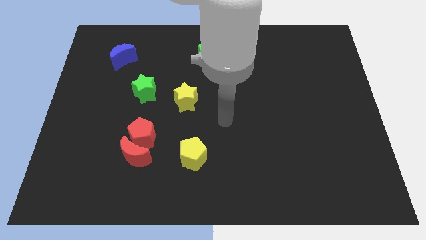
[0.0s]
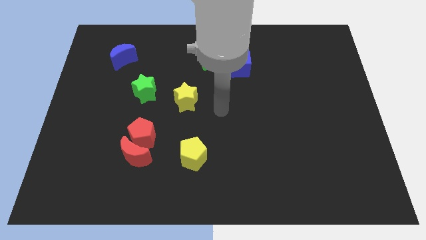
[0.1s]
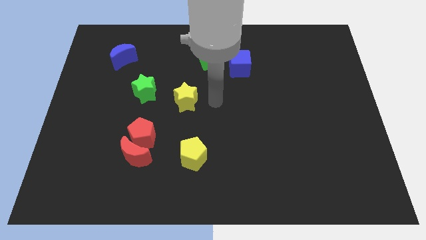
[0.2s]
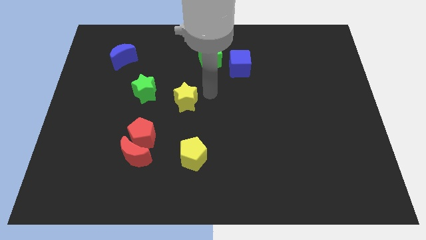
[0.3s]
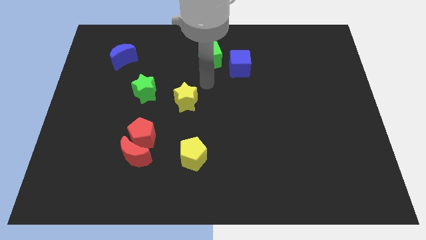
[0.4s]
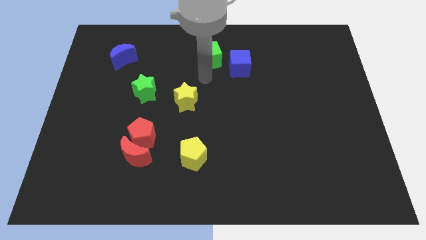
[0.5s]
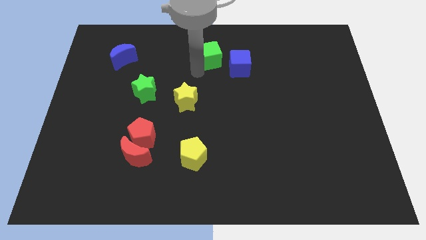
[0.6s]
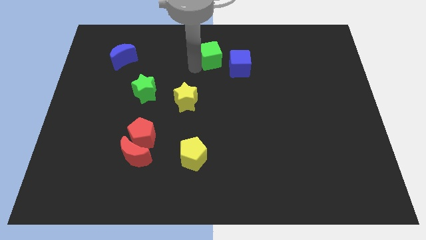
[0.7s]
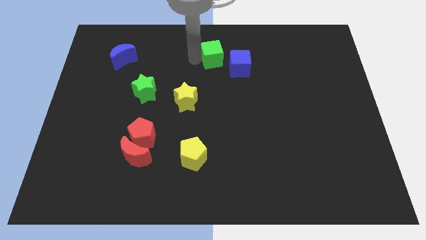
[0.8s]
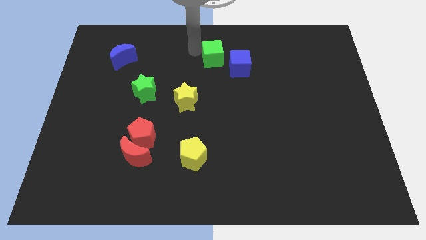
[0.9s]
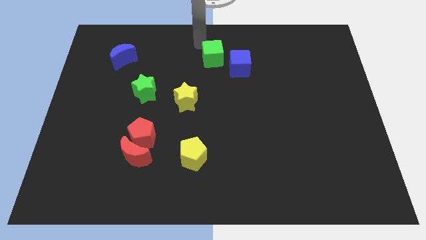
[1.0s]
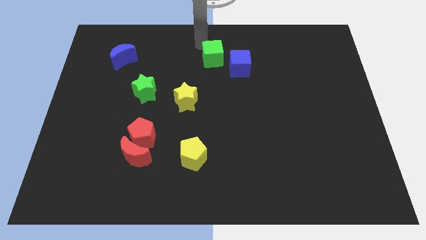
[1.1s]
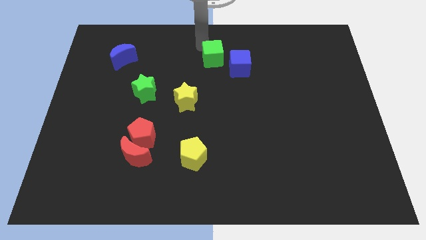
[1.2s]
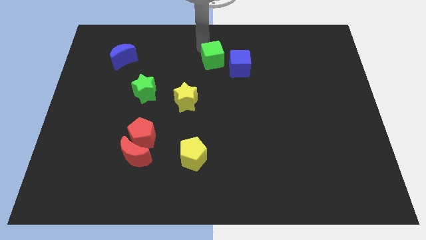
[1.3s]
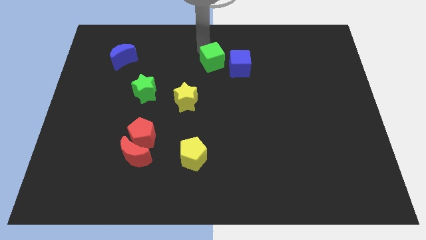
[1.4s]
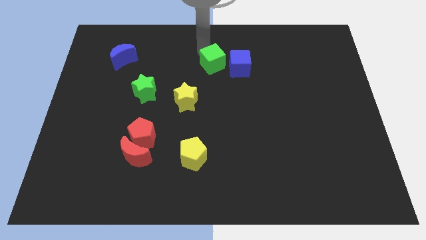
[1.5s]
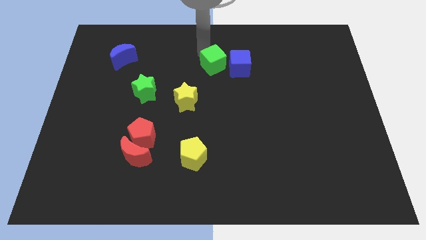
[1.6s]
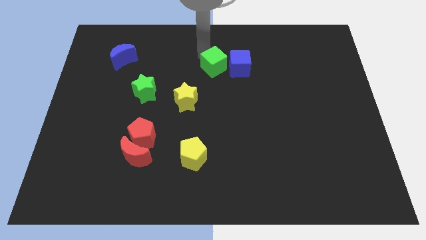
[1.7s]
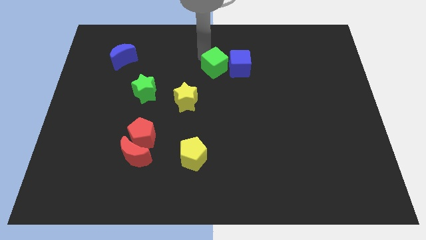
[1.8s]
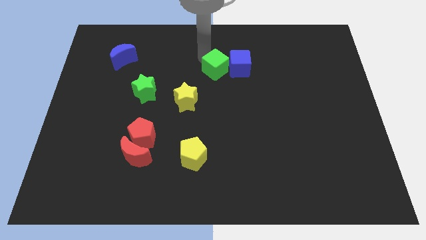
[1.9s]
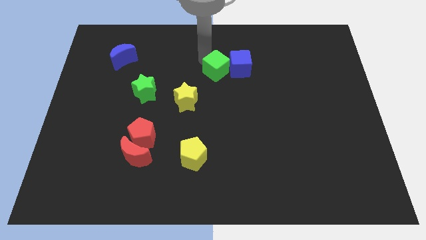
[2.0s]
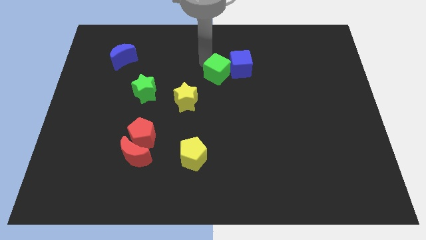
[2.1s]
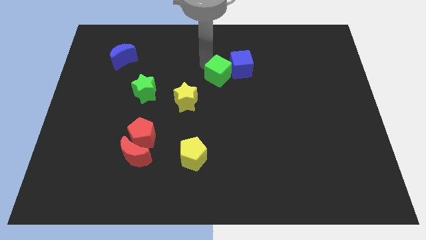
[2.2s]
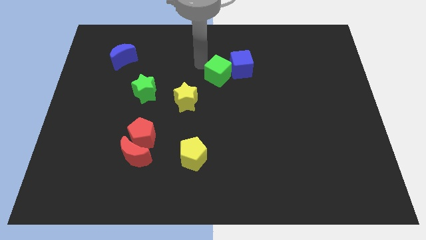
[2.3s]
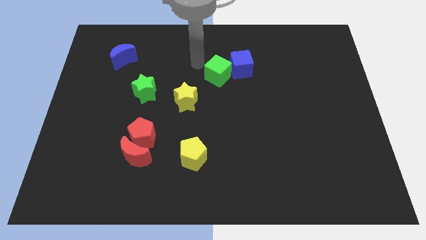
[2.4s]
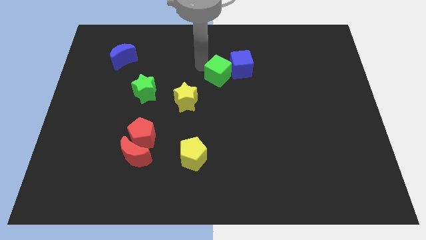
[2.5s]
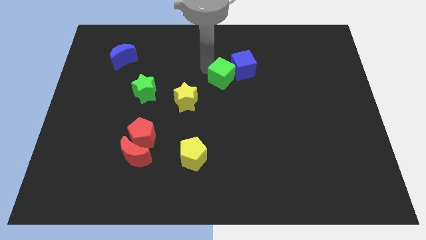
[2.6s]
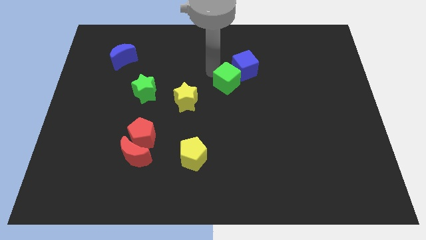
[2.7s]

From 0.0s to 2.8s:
push the green cube down and right diagonally somewhat

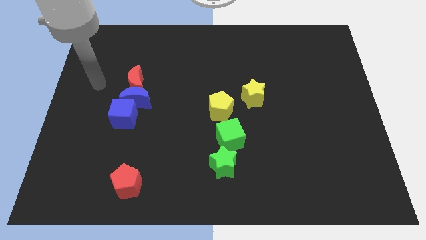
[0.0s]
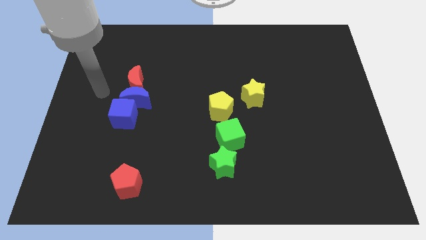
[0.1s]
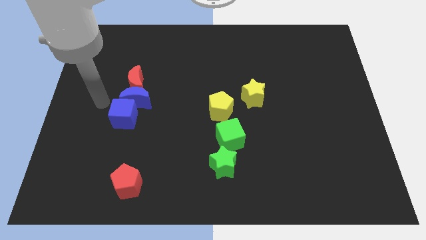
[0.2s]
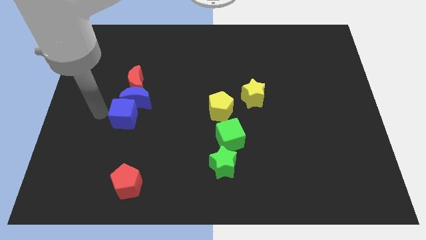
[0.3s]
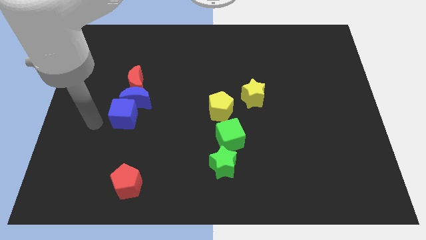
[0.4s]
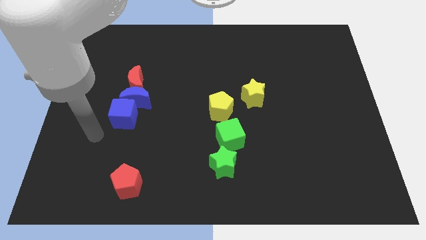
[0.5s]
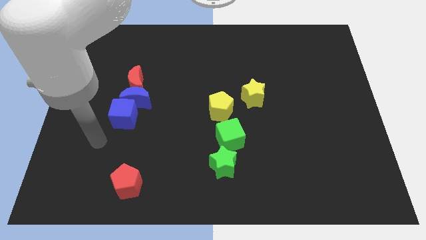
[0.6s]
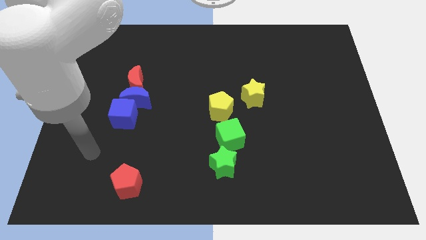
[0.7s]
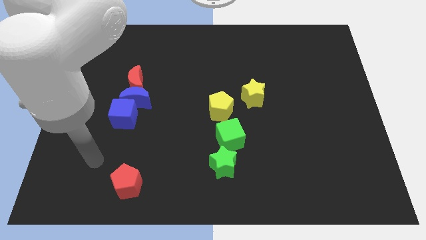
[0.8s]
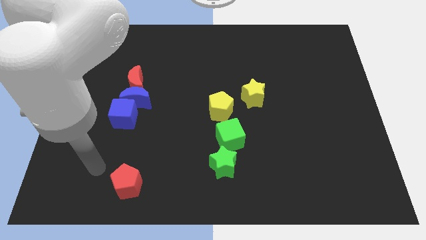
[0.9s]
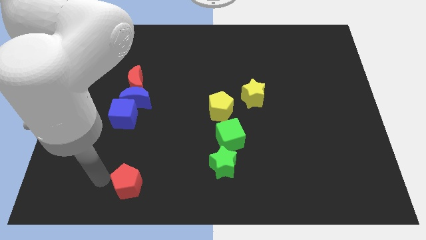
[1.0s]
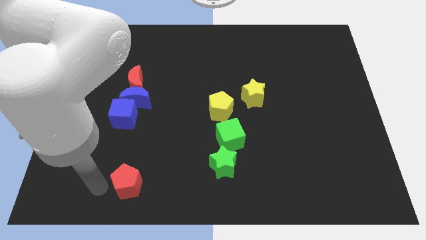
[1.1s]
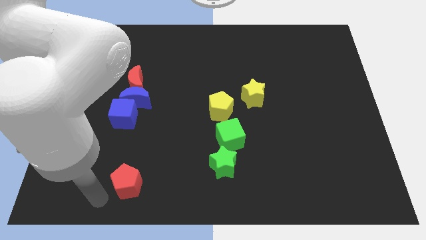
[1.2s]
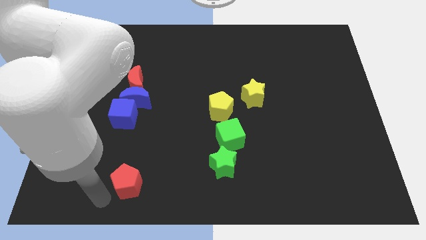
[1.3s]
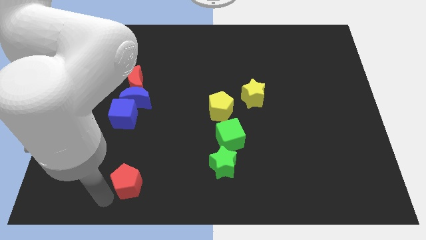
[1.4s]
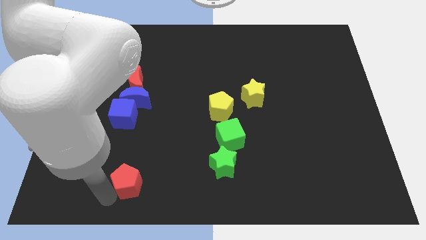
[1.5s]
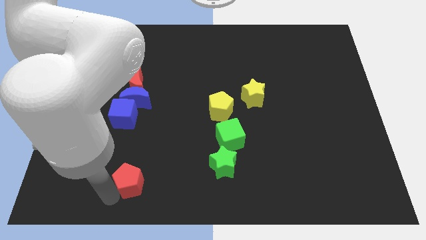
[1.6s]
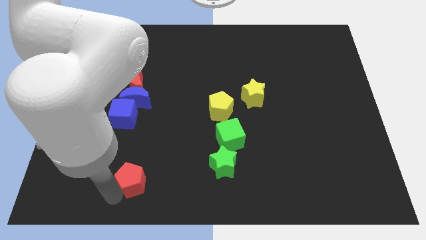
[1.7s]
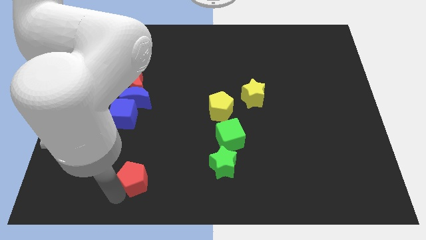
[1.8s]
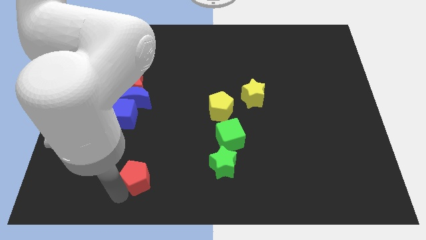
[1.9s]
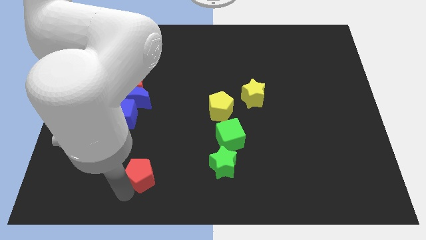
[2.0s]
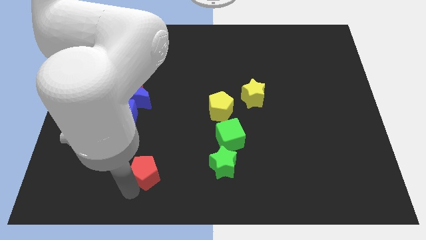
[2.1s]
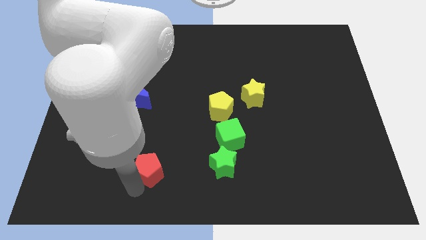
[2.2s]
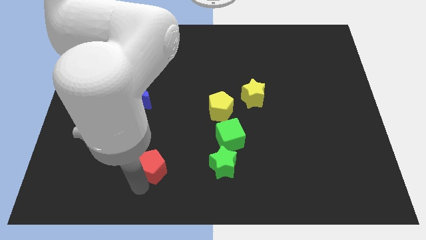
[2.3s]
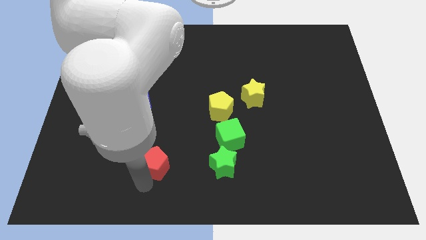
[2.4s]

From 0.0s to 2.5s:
push the red pentagon diagonally up and right somewhat

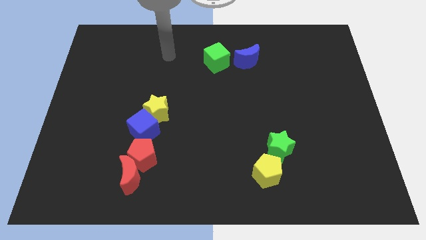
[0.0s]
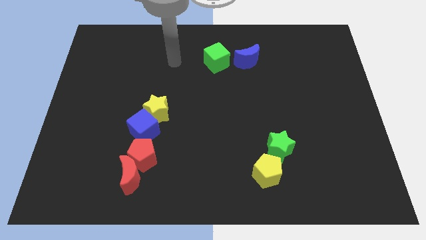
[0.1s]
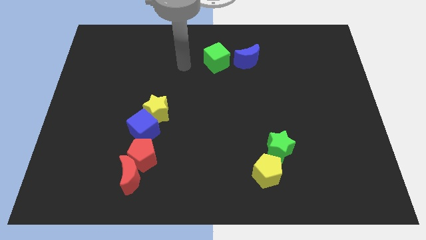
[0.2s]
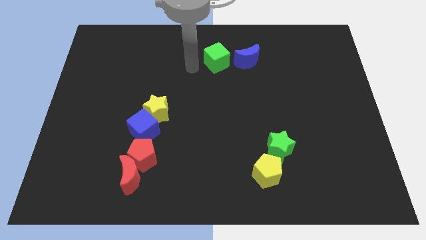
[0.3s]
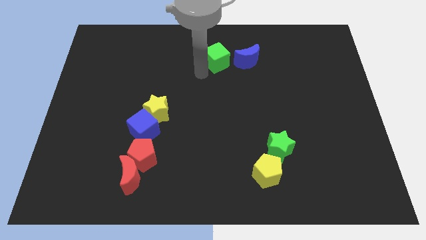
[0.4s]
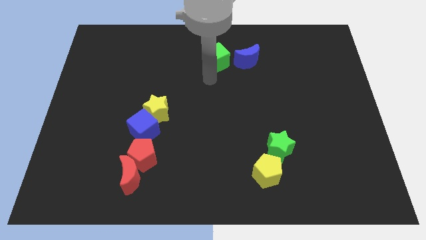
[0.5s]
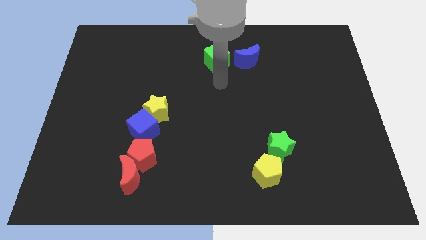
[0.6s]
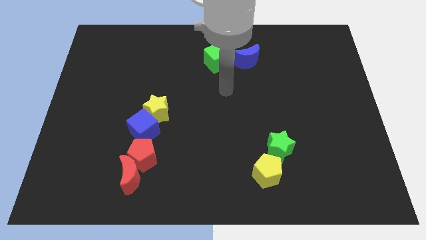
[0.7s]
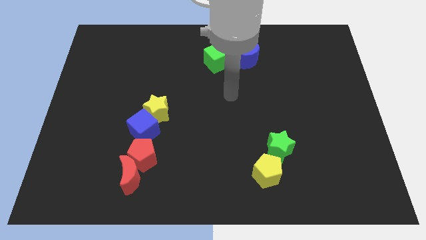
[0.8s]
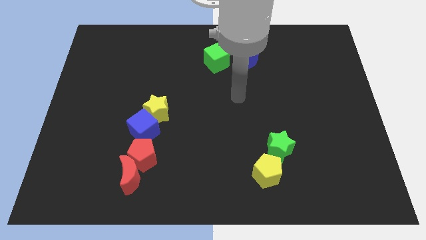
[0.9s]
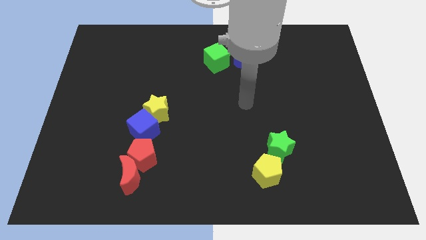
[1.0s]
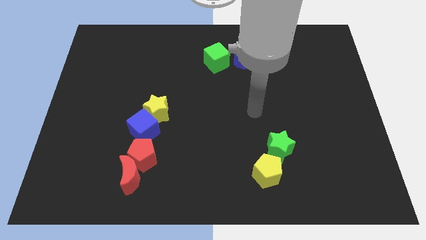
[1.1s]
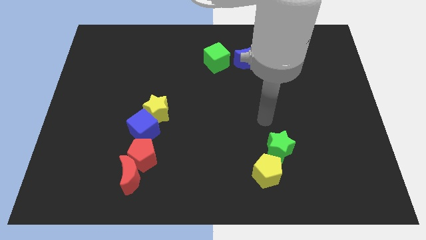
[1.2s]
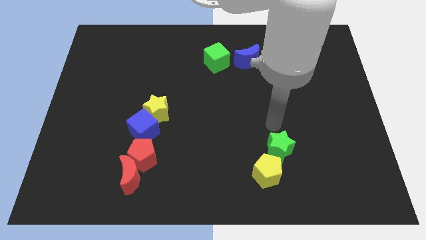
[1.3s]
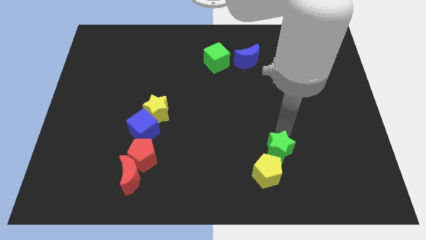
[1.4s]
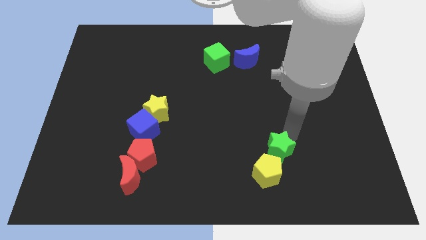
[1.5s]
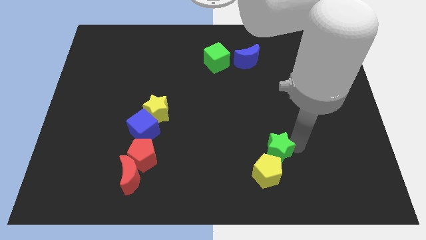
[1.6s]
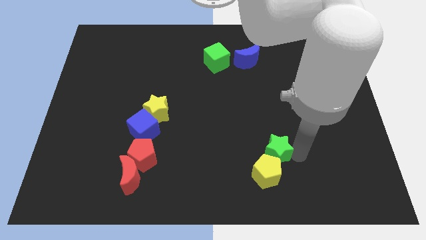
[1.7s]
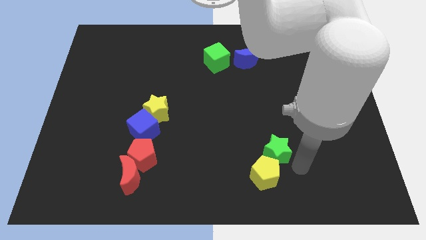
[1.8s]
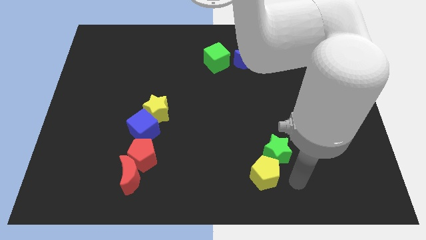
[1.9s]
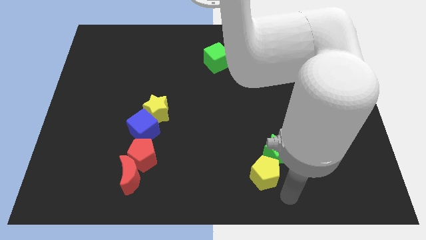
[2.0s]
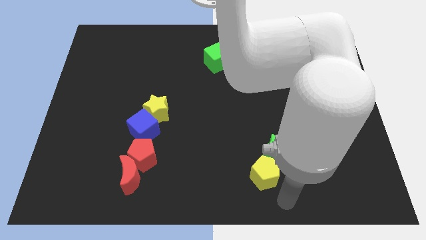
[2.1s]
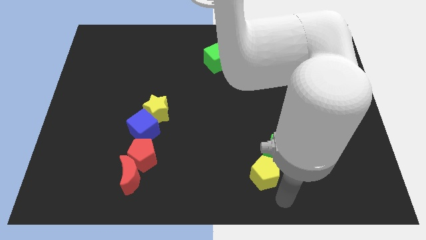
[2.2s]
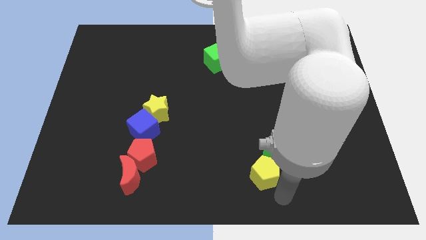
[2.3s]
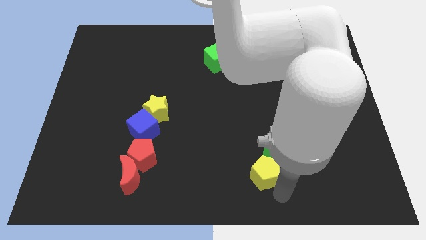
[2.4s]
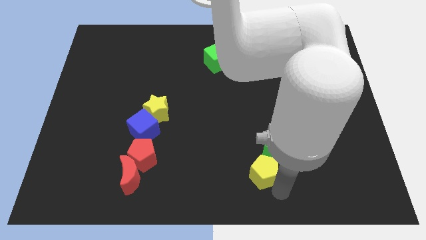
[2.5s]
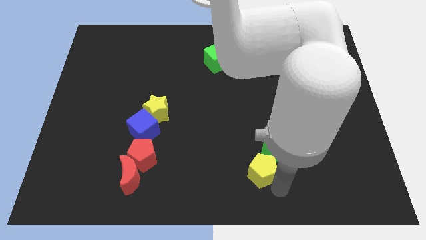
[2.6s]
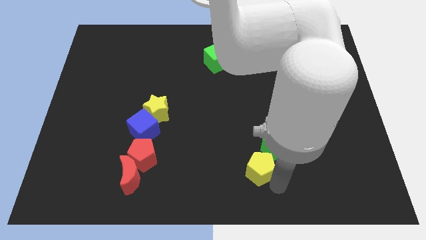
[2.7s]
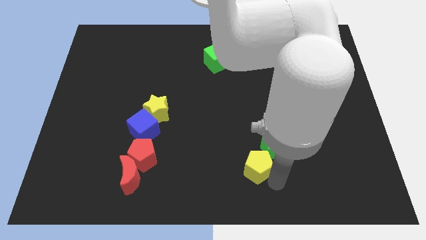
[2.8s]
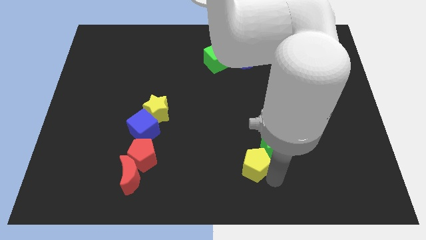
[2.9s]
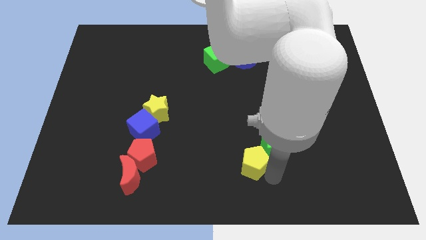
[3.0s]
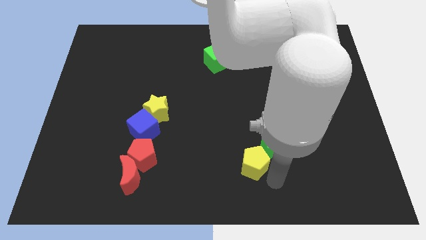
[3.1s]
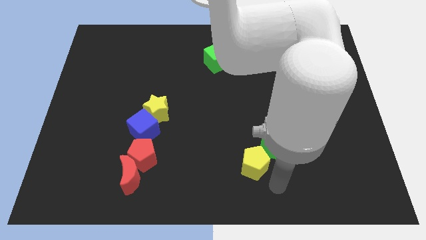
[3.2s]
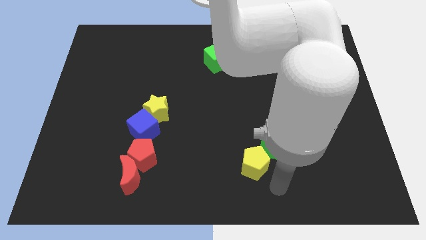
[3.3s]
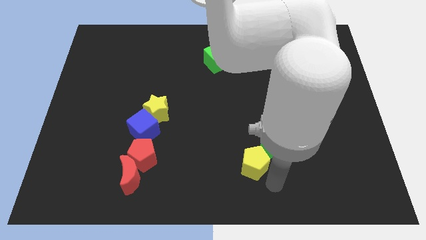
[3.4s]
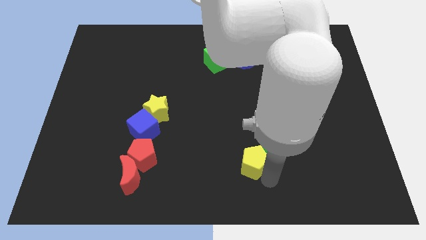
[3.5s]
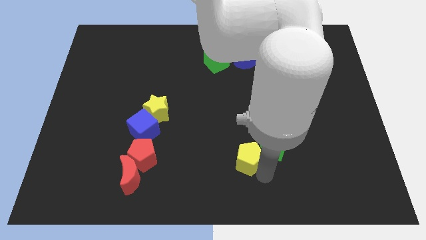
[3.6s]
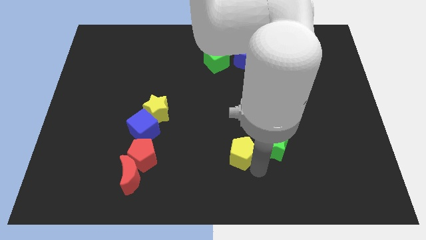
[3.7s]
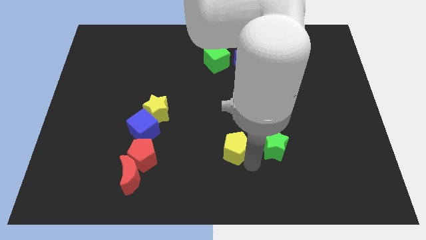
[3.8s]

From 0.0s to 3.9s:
move the yellow pentagon a bit up and to the left
